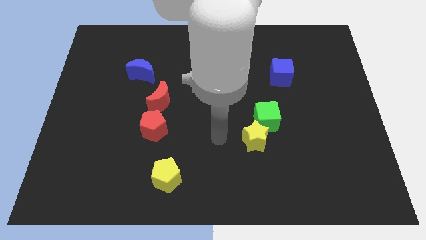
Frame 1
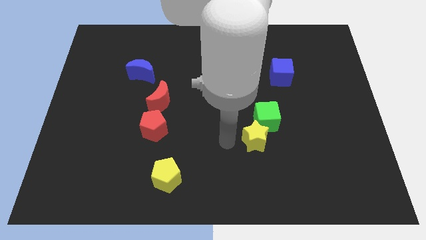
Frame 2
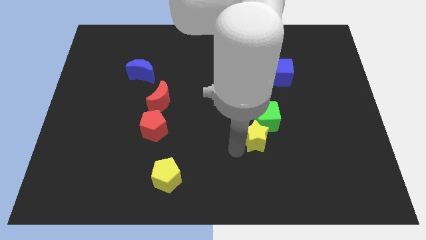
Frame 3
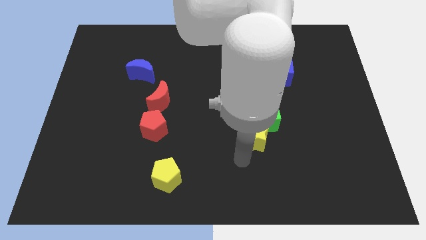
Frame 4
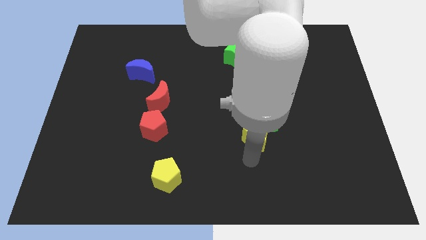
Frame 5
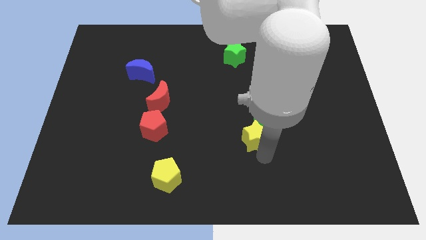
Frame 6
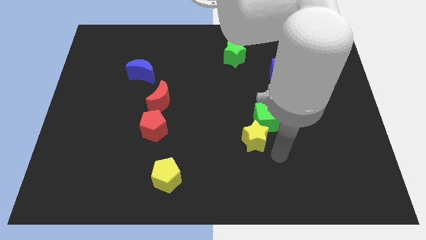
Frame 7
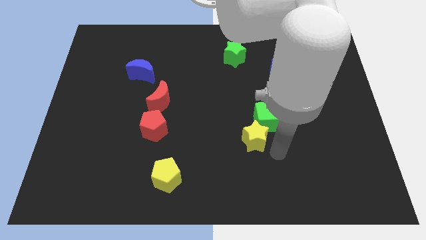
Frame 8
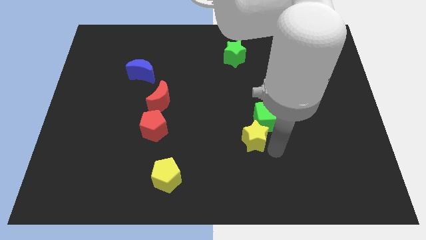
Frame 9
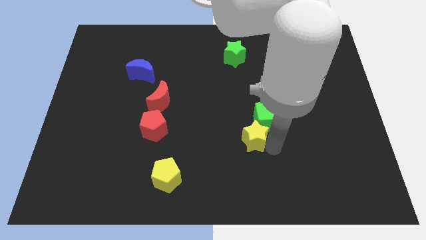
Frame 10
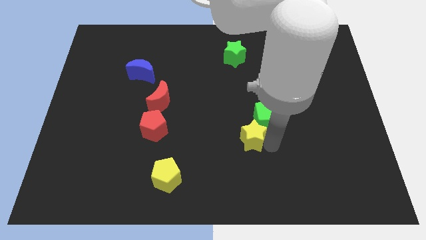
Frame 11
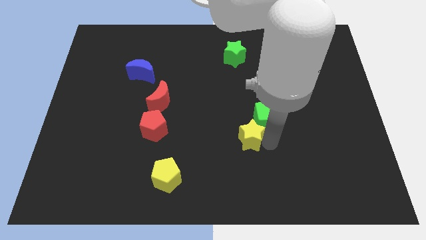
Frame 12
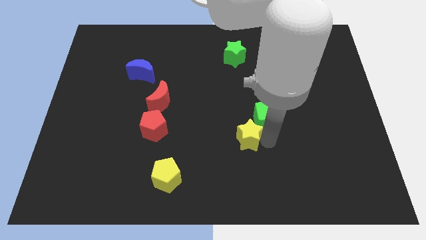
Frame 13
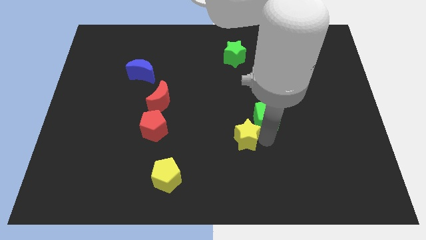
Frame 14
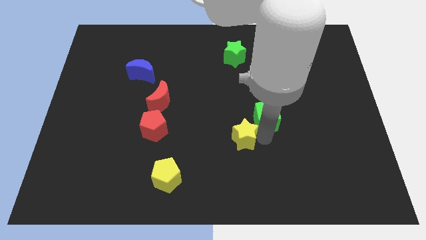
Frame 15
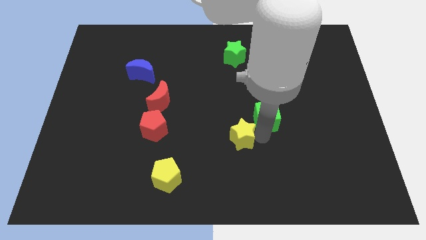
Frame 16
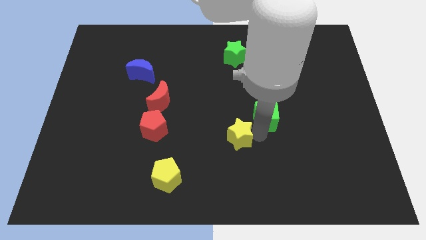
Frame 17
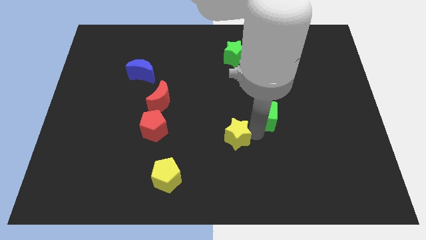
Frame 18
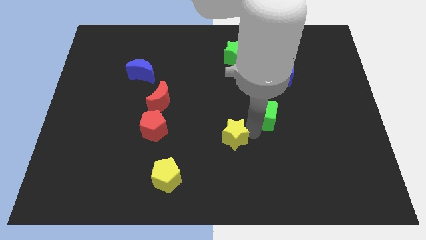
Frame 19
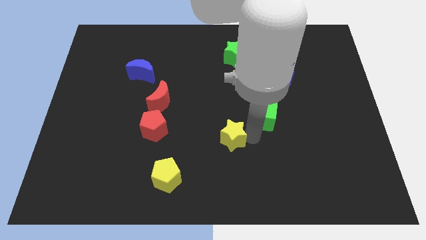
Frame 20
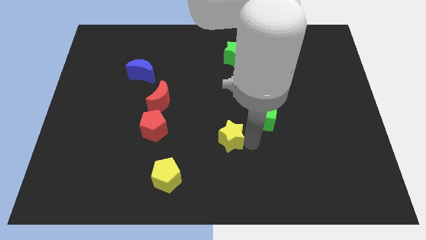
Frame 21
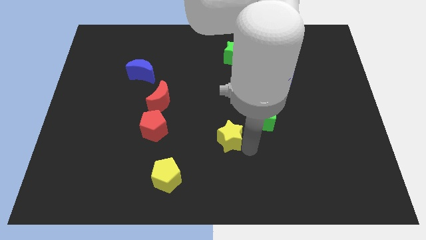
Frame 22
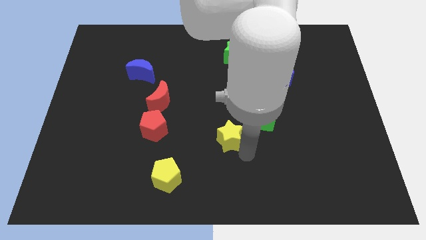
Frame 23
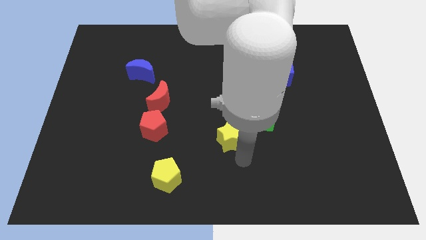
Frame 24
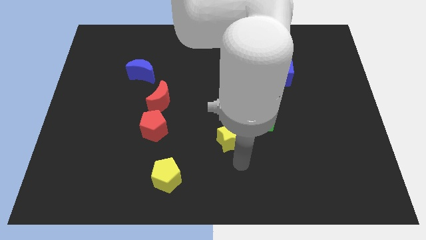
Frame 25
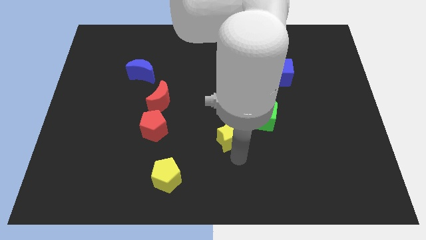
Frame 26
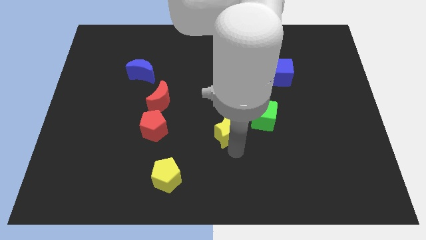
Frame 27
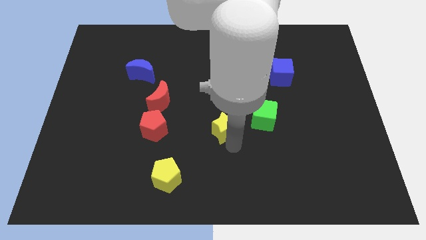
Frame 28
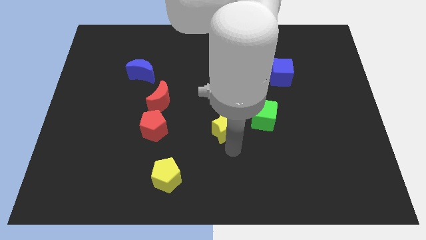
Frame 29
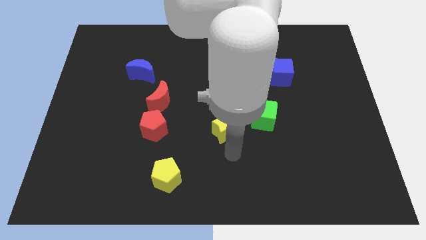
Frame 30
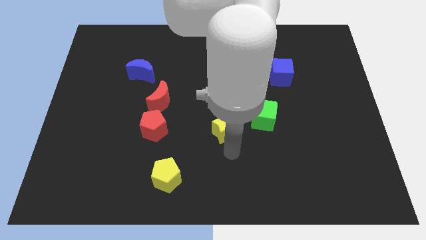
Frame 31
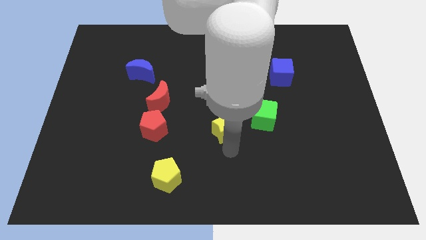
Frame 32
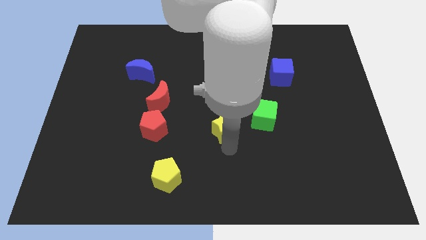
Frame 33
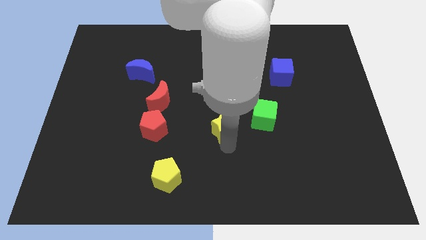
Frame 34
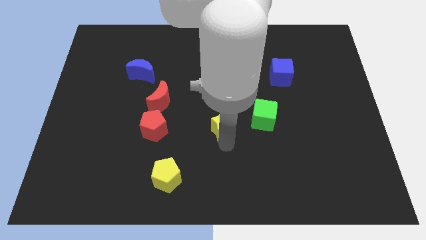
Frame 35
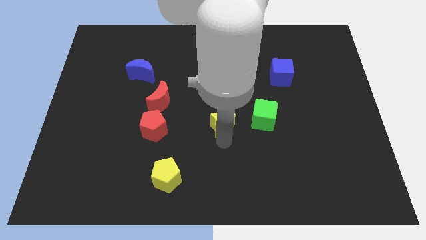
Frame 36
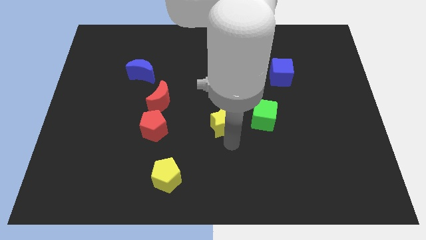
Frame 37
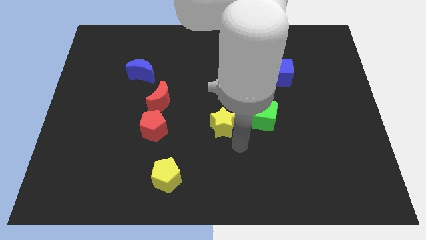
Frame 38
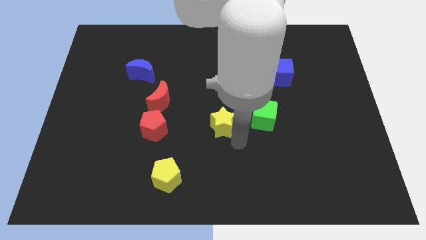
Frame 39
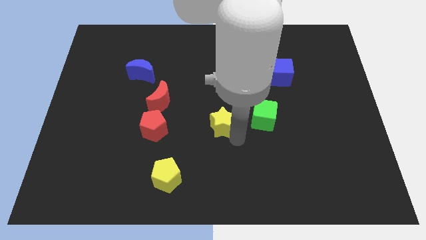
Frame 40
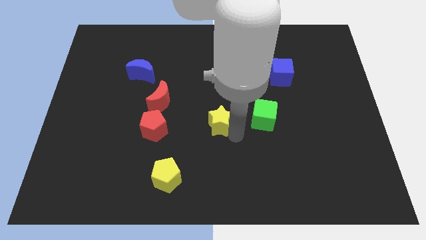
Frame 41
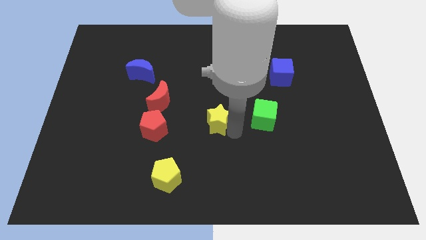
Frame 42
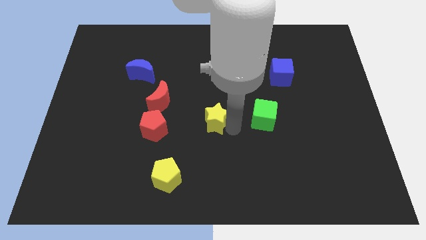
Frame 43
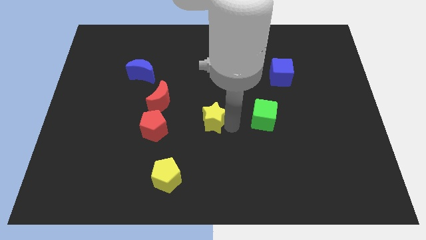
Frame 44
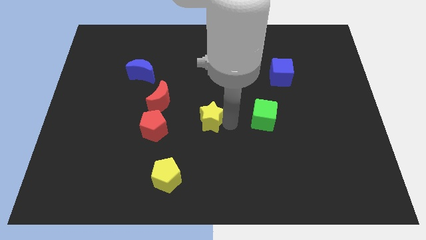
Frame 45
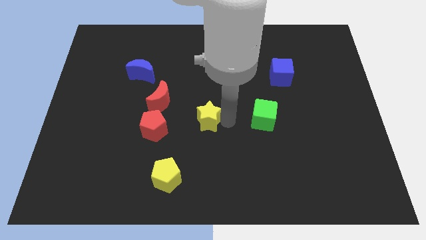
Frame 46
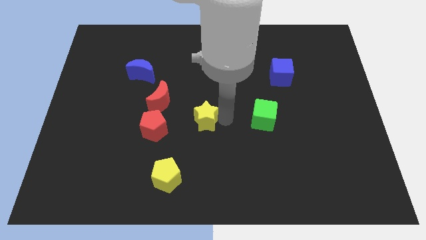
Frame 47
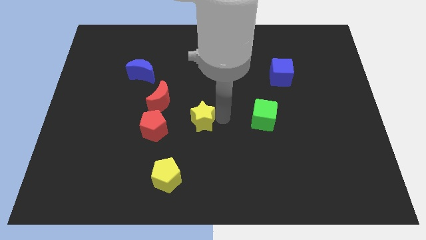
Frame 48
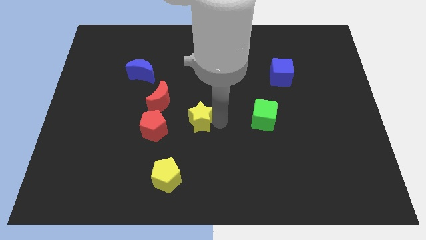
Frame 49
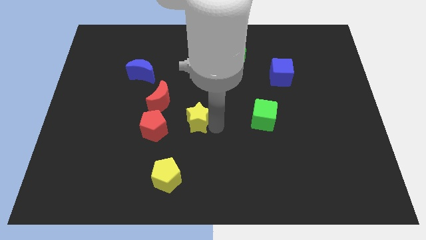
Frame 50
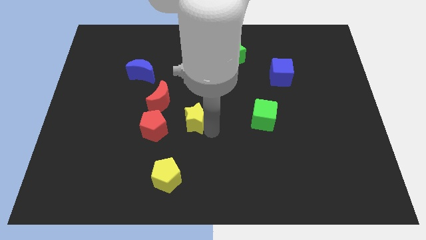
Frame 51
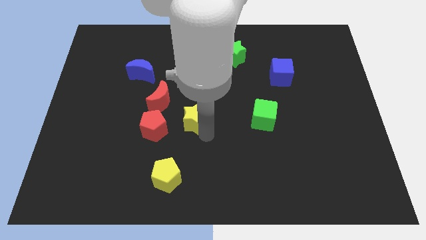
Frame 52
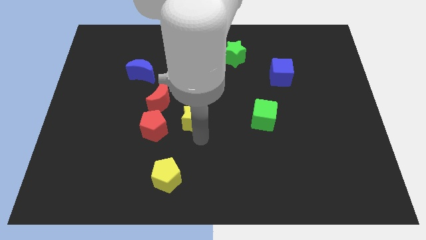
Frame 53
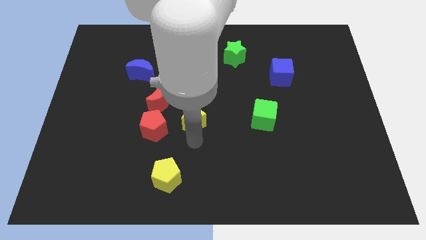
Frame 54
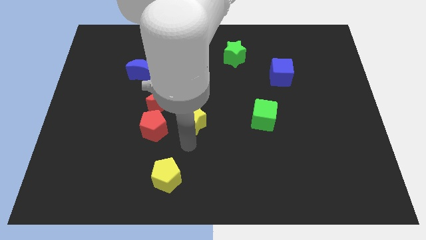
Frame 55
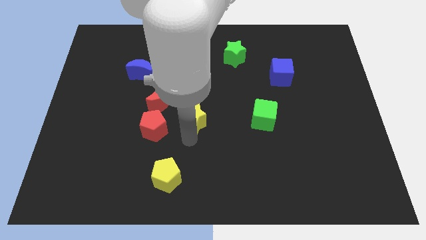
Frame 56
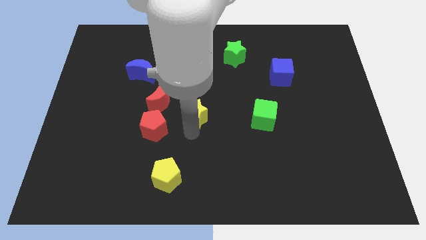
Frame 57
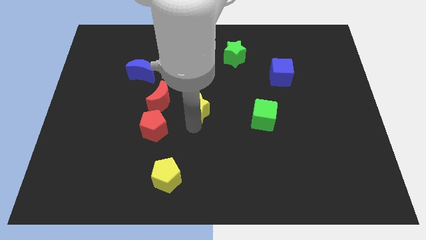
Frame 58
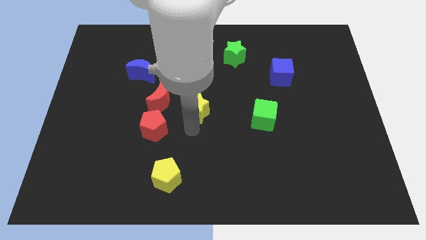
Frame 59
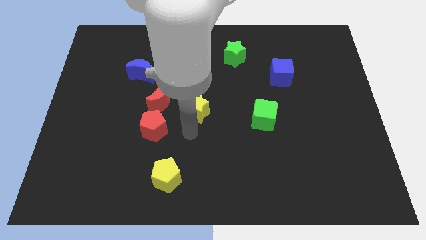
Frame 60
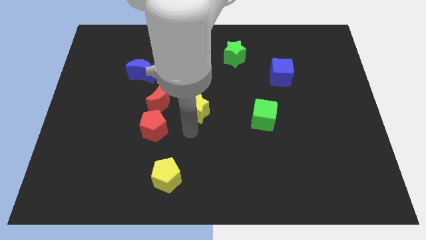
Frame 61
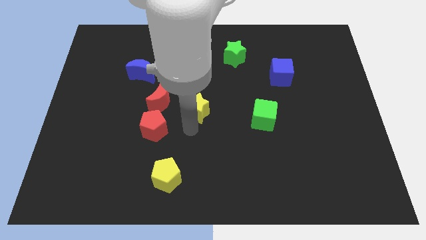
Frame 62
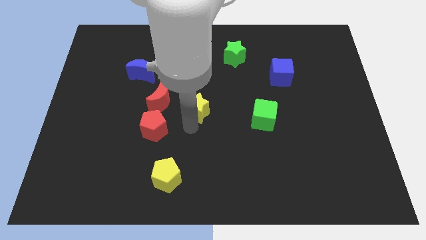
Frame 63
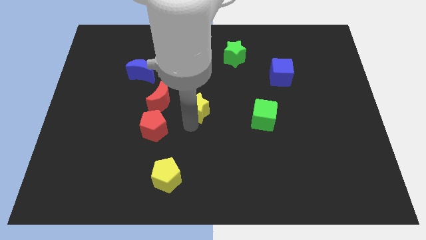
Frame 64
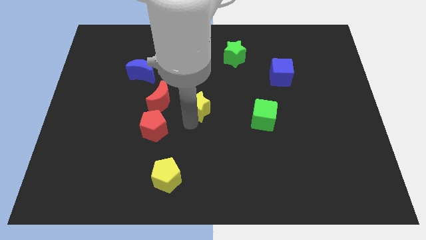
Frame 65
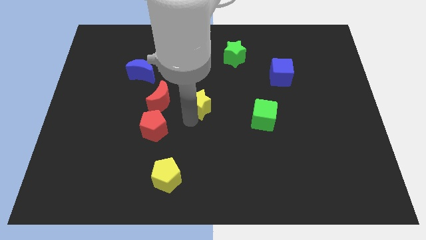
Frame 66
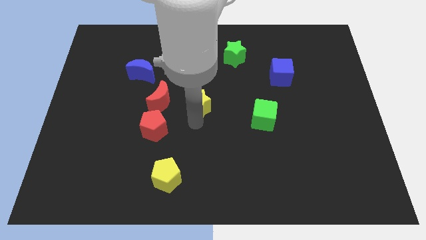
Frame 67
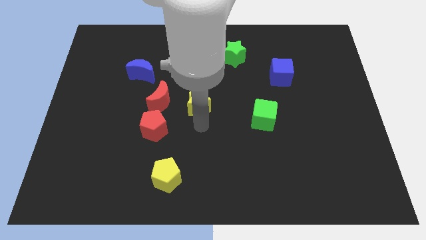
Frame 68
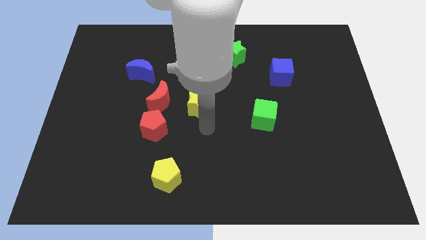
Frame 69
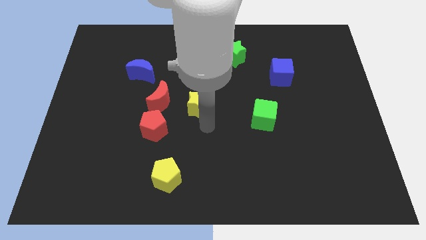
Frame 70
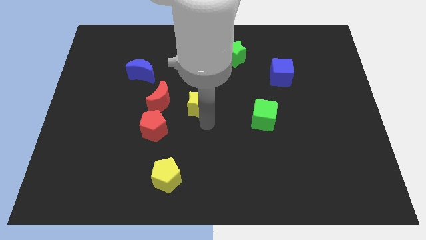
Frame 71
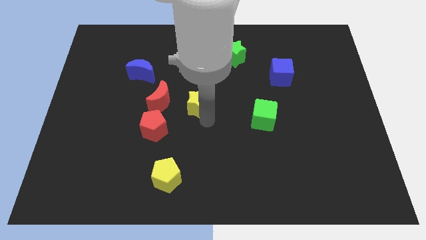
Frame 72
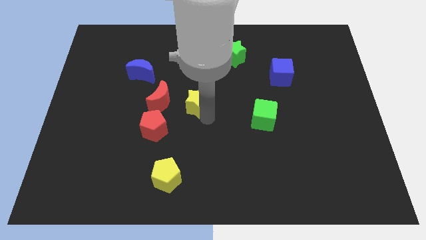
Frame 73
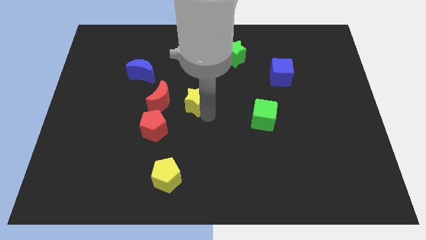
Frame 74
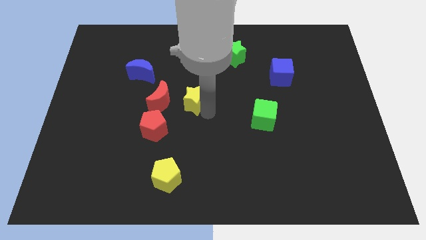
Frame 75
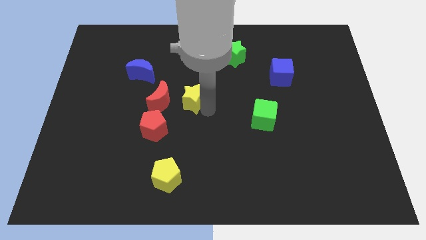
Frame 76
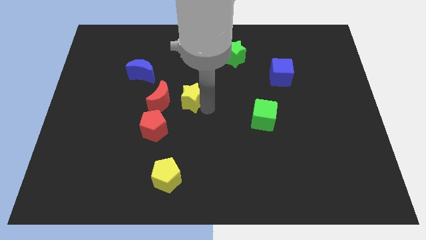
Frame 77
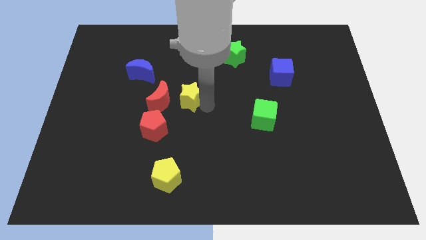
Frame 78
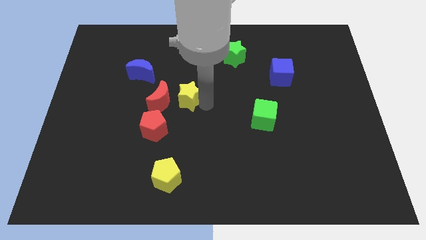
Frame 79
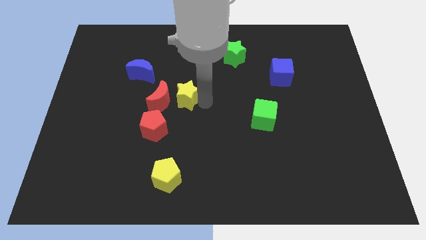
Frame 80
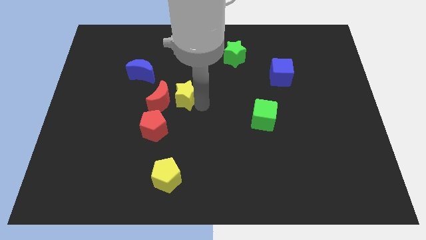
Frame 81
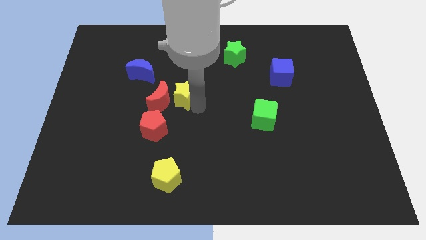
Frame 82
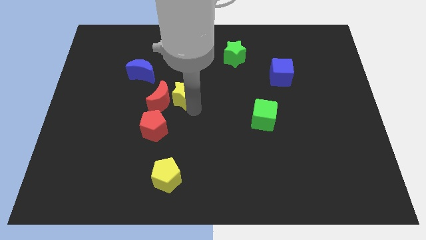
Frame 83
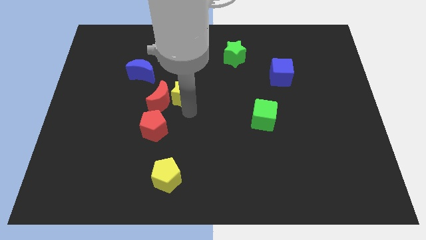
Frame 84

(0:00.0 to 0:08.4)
move the yellow star up and to the left diagonally

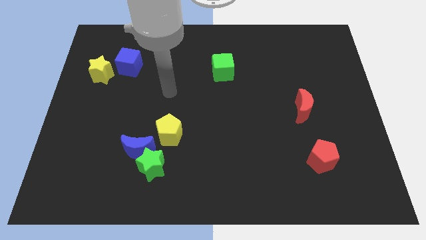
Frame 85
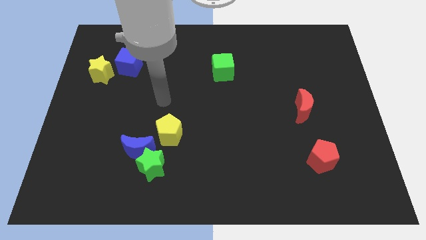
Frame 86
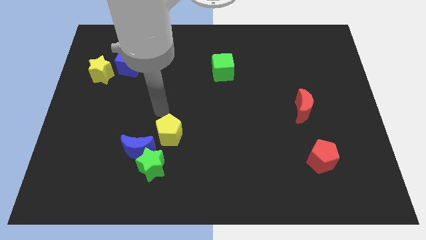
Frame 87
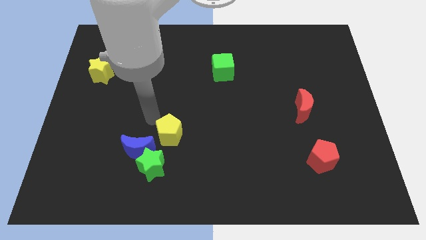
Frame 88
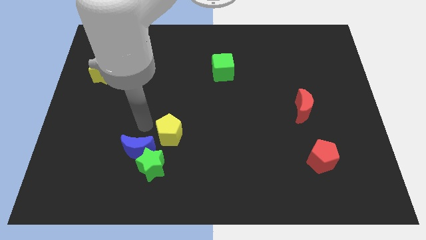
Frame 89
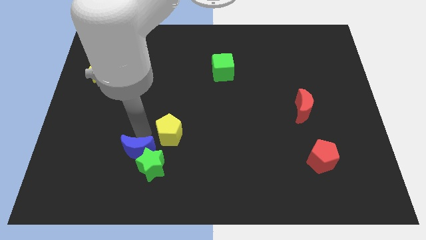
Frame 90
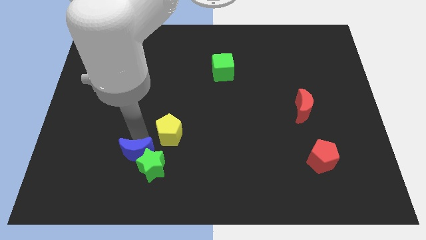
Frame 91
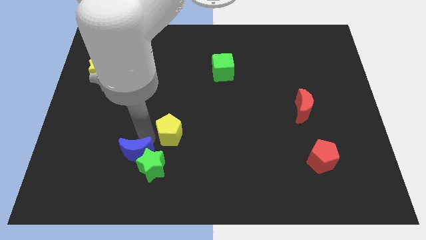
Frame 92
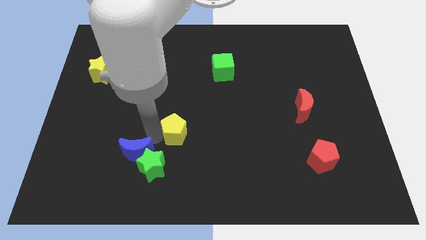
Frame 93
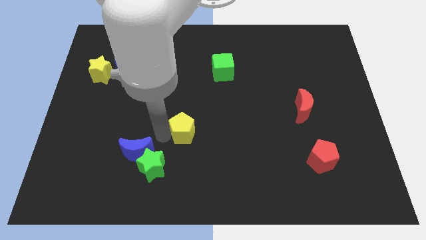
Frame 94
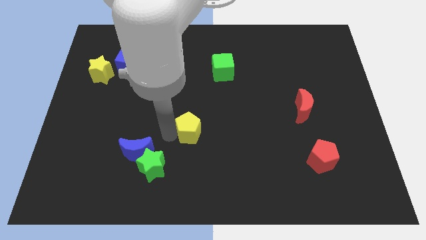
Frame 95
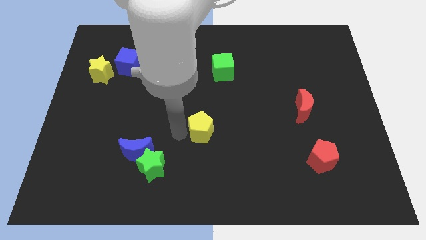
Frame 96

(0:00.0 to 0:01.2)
slide the yellow pentagon slightly right
